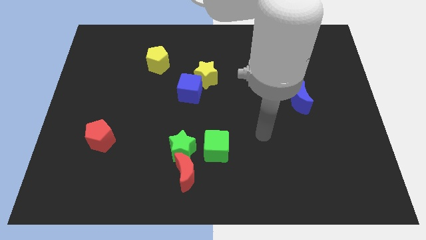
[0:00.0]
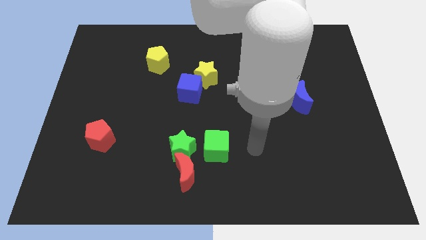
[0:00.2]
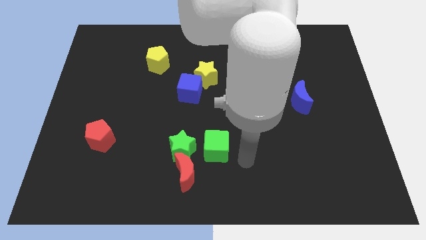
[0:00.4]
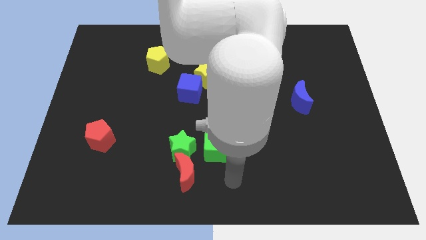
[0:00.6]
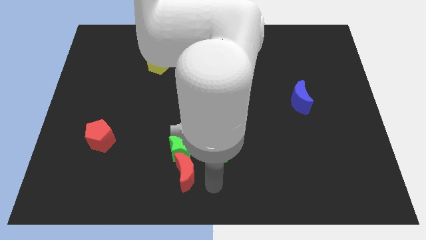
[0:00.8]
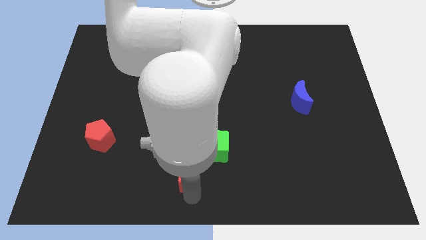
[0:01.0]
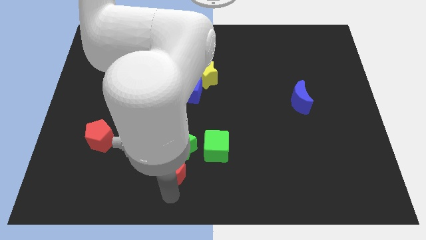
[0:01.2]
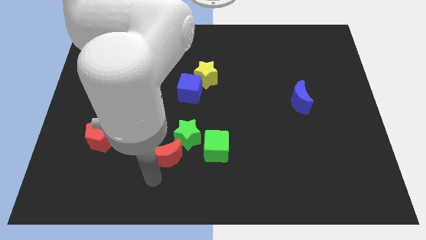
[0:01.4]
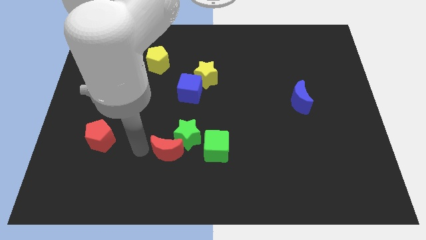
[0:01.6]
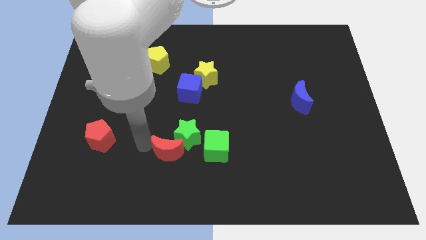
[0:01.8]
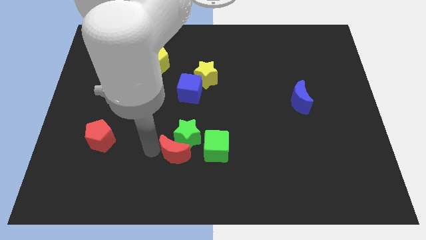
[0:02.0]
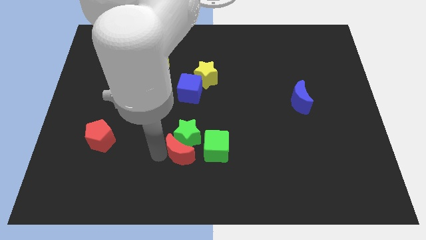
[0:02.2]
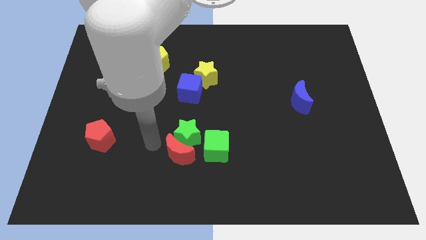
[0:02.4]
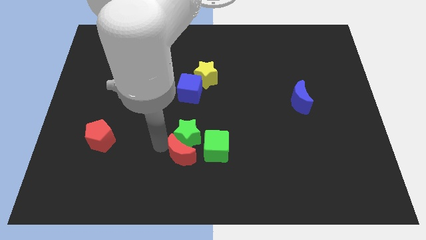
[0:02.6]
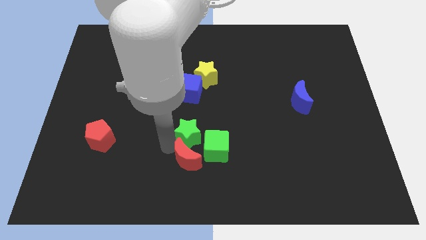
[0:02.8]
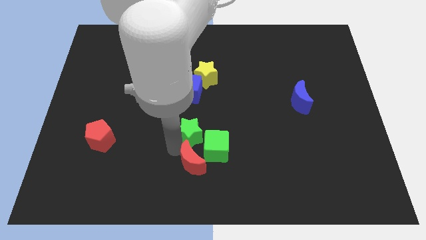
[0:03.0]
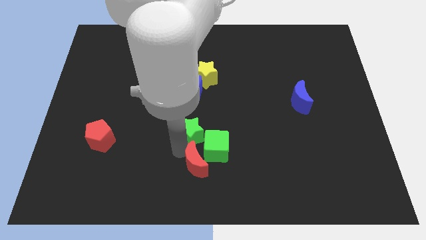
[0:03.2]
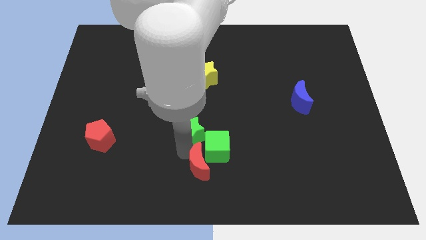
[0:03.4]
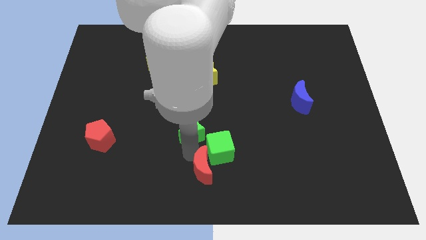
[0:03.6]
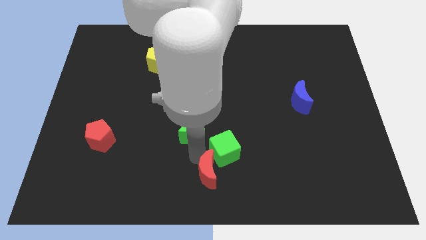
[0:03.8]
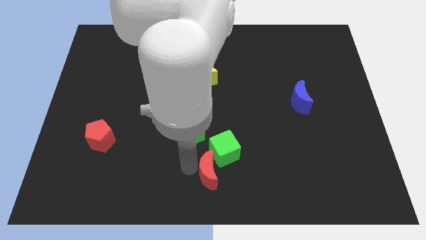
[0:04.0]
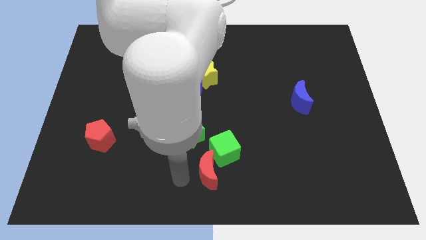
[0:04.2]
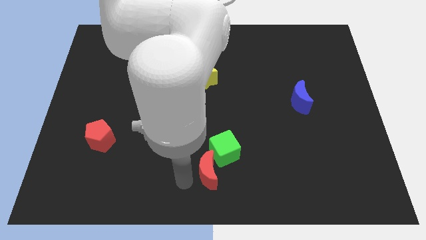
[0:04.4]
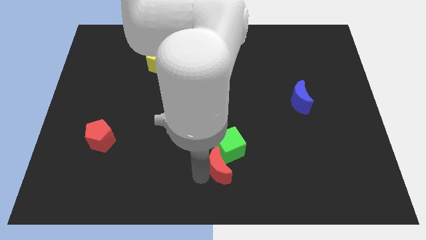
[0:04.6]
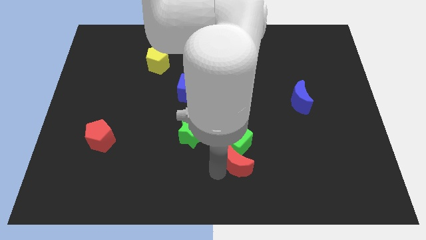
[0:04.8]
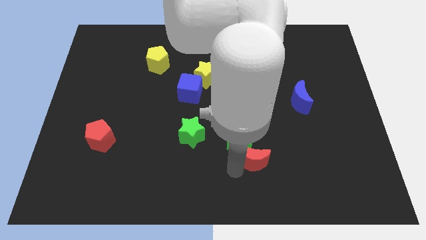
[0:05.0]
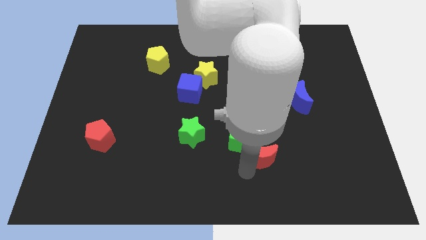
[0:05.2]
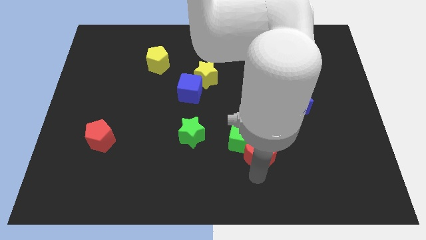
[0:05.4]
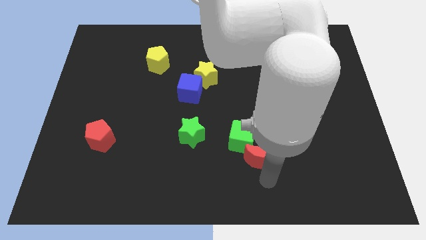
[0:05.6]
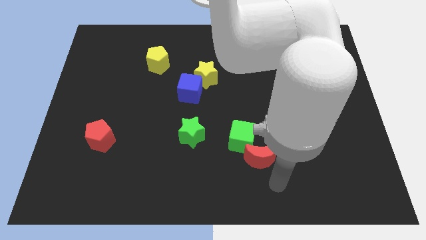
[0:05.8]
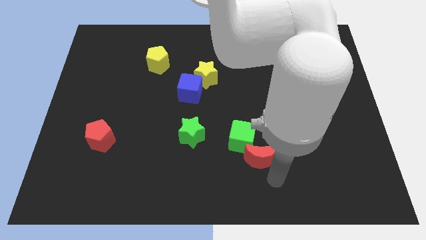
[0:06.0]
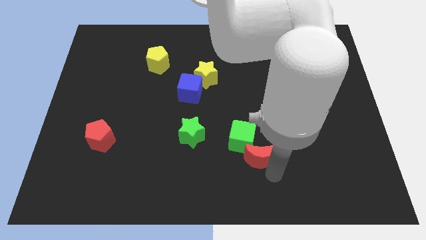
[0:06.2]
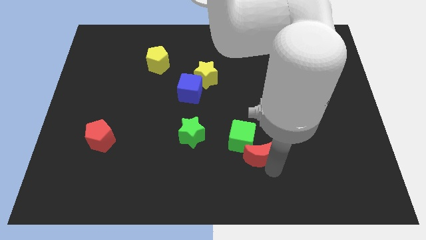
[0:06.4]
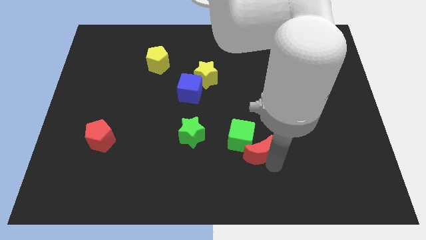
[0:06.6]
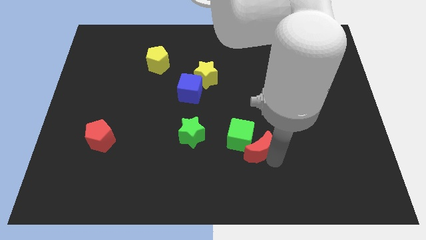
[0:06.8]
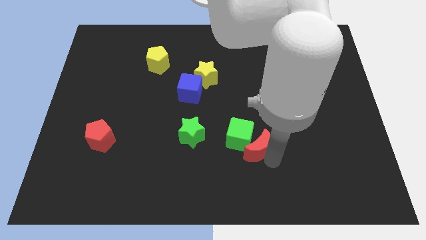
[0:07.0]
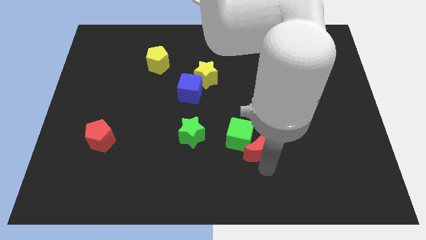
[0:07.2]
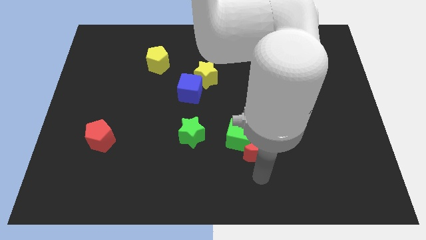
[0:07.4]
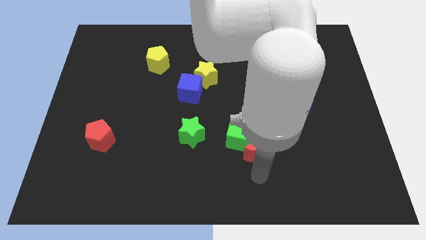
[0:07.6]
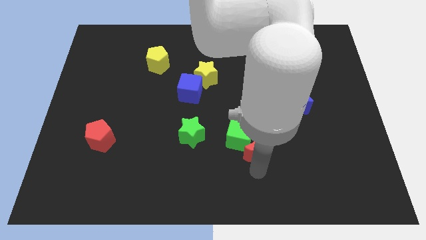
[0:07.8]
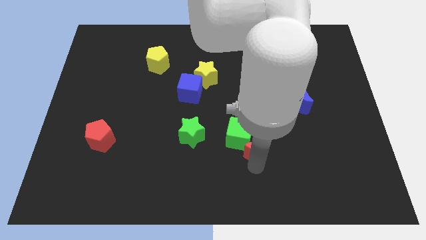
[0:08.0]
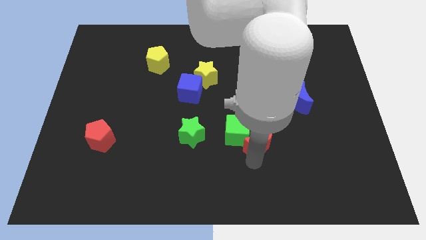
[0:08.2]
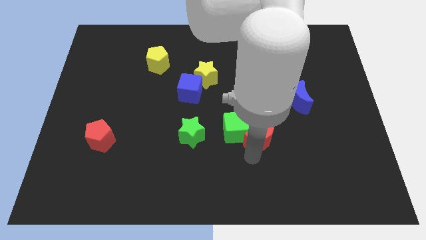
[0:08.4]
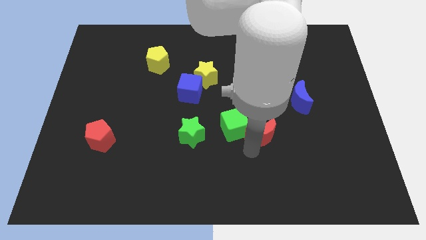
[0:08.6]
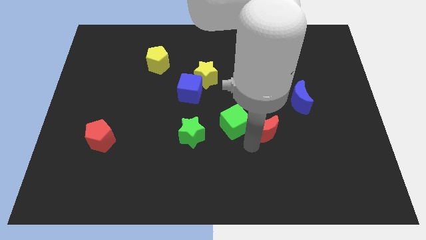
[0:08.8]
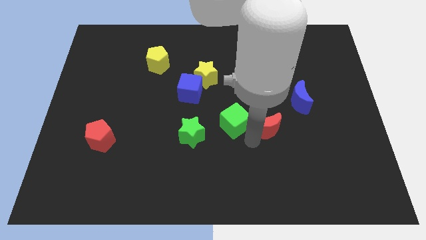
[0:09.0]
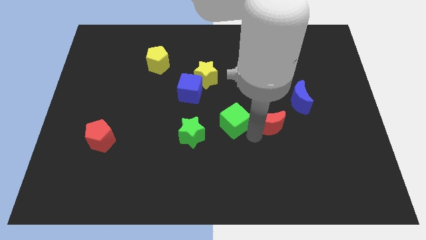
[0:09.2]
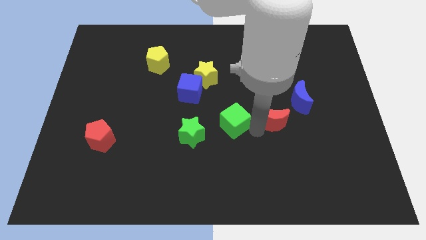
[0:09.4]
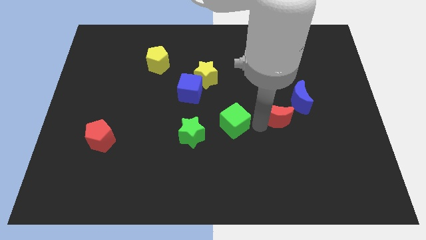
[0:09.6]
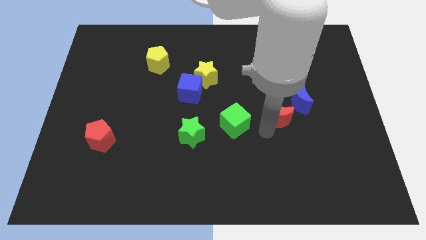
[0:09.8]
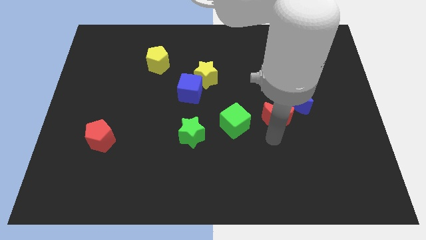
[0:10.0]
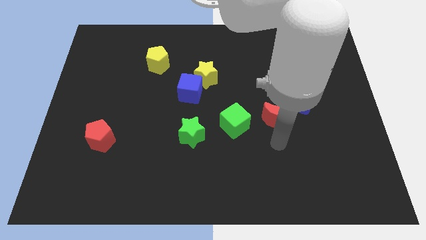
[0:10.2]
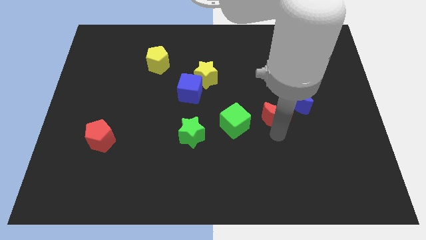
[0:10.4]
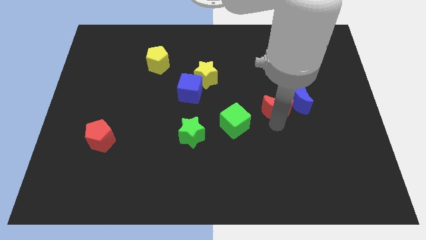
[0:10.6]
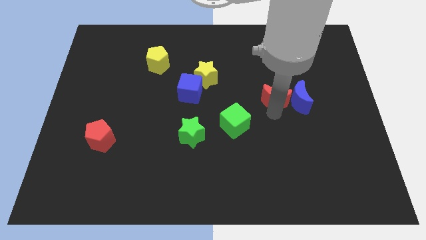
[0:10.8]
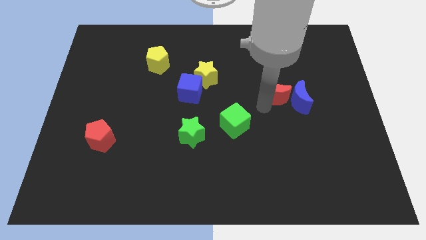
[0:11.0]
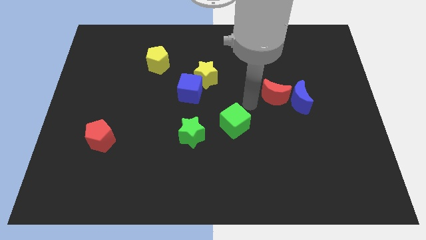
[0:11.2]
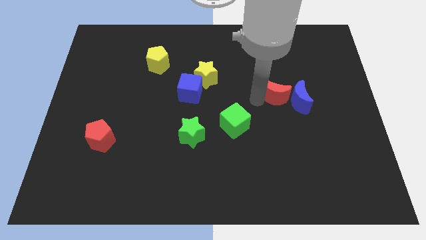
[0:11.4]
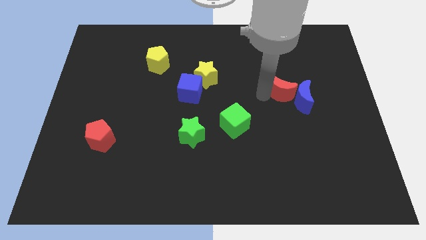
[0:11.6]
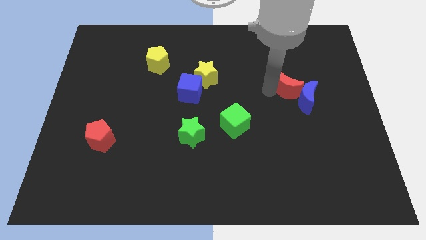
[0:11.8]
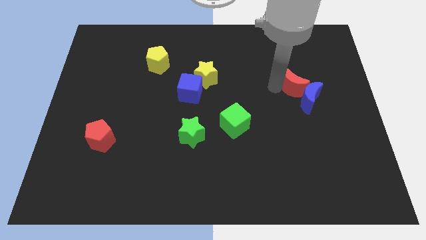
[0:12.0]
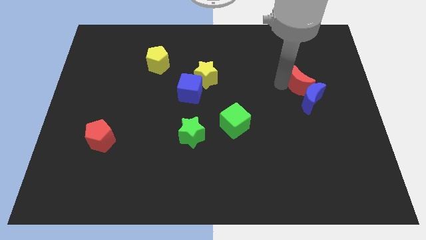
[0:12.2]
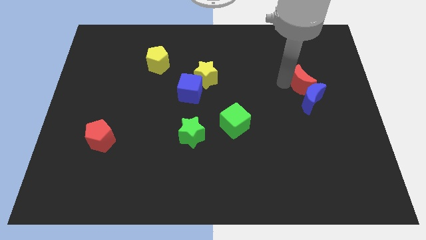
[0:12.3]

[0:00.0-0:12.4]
move the red moon to the top right of the blue moon

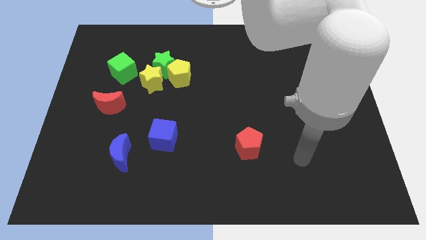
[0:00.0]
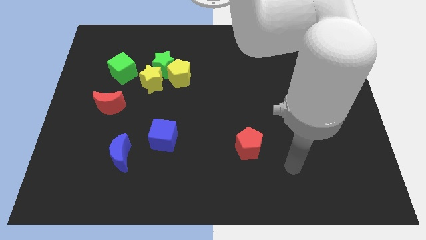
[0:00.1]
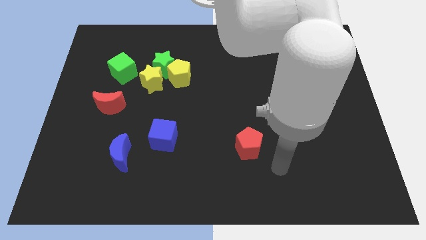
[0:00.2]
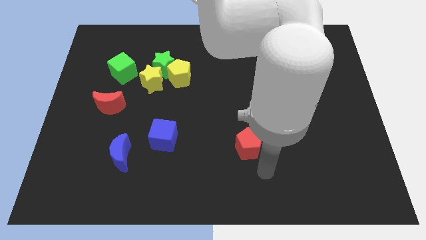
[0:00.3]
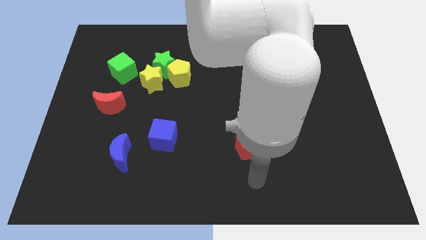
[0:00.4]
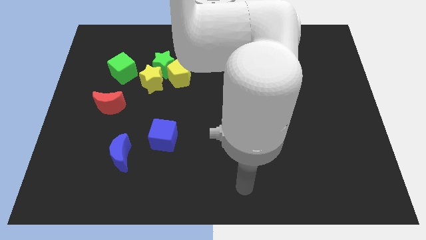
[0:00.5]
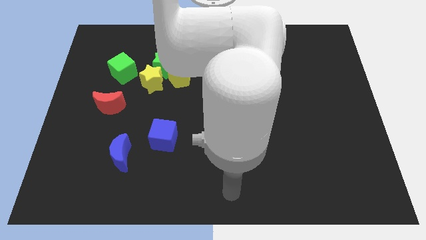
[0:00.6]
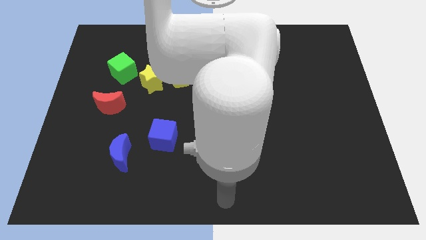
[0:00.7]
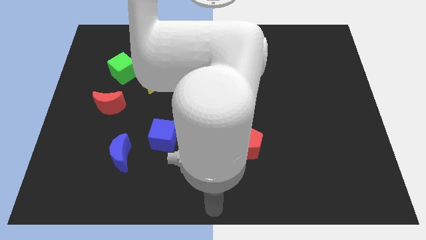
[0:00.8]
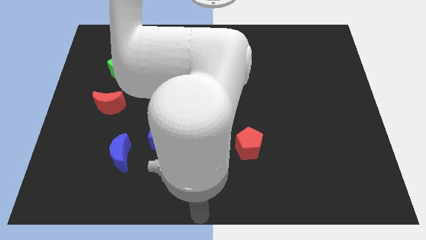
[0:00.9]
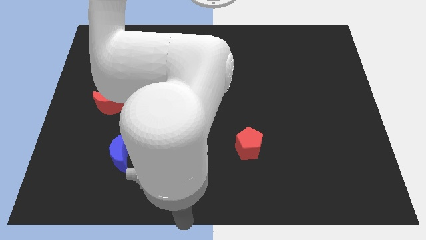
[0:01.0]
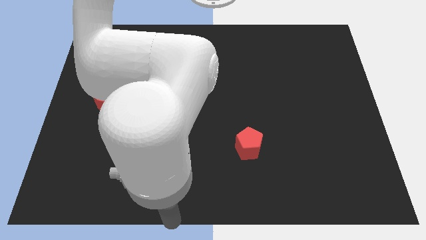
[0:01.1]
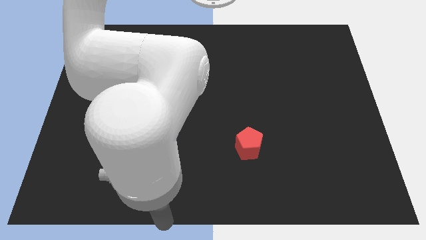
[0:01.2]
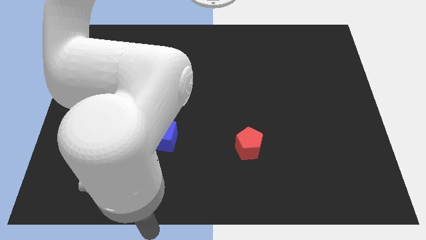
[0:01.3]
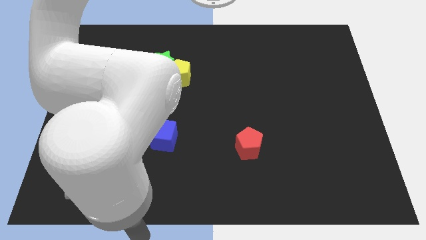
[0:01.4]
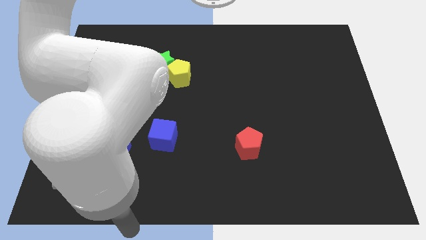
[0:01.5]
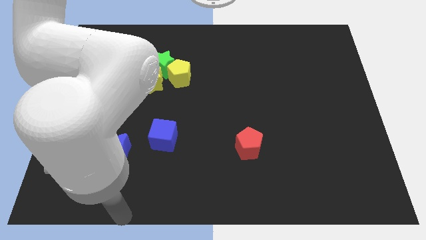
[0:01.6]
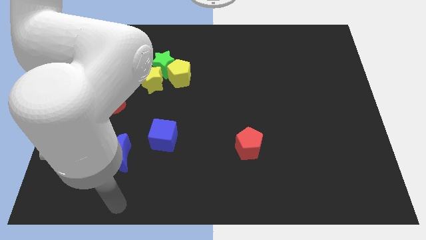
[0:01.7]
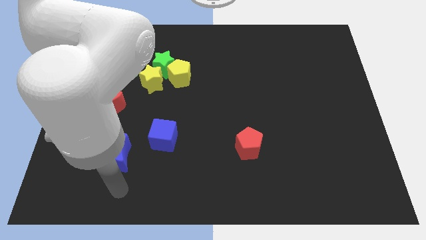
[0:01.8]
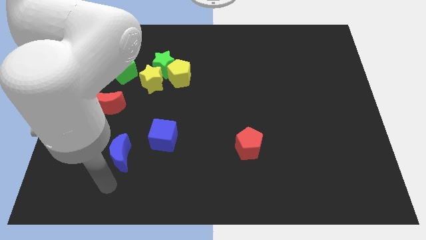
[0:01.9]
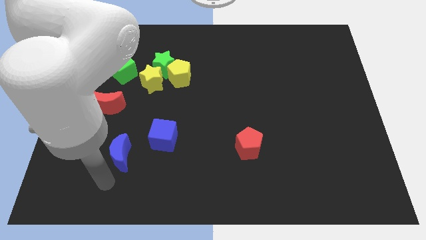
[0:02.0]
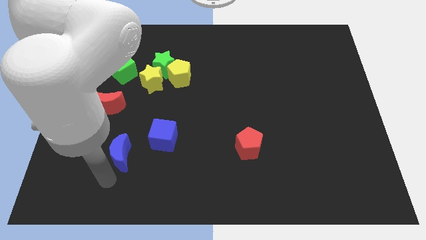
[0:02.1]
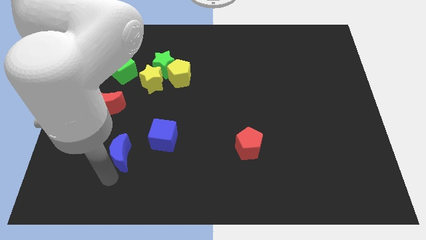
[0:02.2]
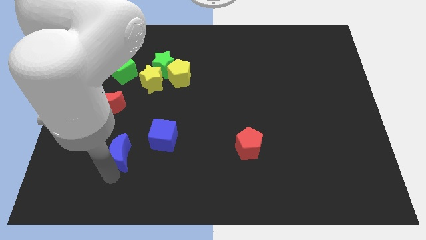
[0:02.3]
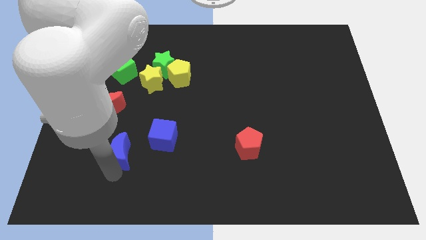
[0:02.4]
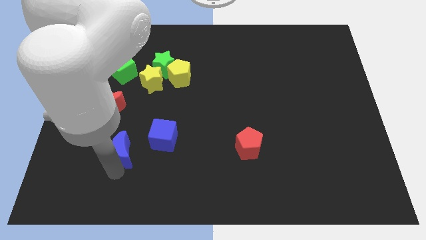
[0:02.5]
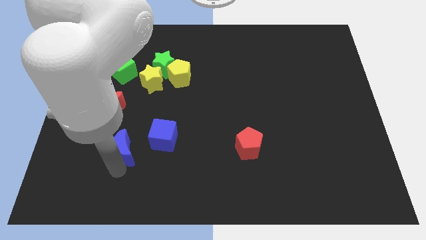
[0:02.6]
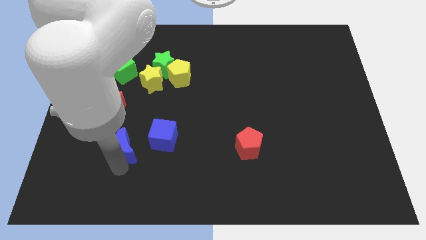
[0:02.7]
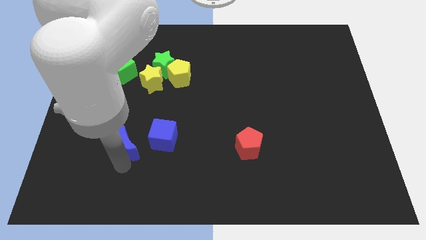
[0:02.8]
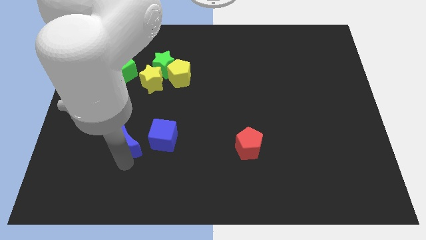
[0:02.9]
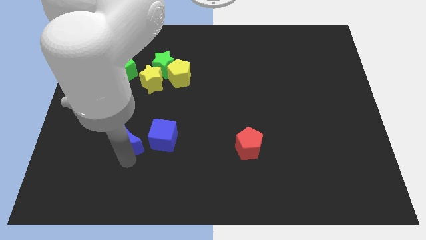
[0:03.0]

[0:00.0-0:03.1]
put the blue moon diagonally down and to the right of the red moon
